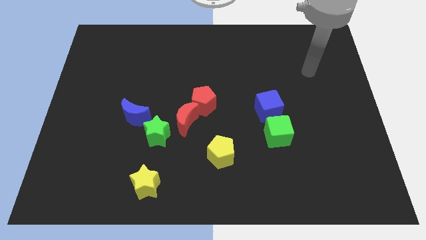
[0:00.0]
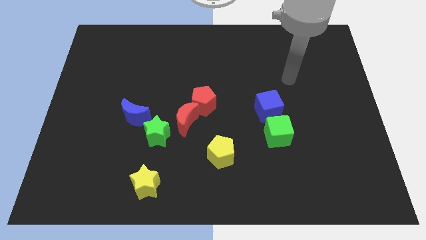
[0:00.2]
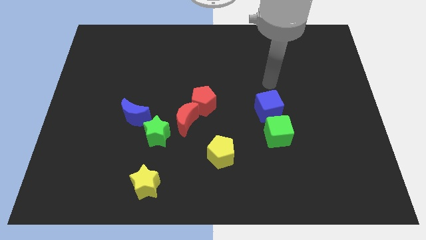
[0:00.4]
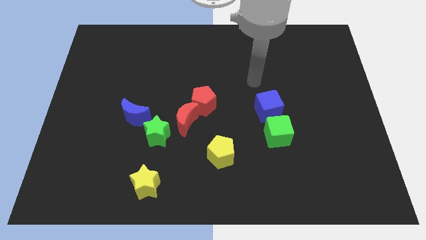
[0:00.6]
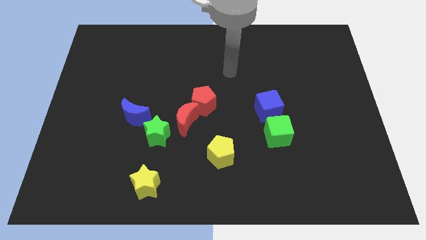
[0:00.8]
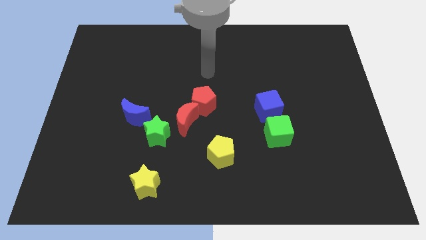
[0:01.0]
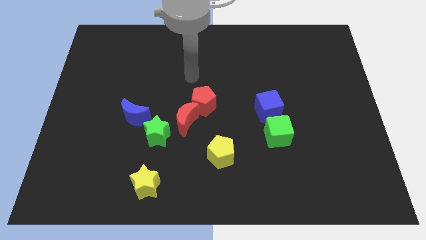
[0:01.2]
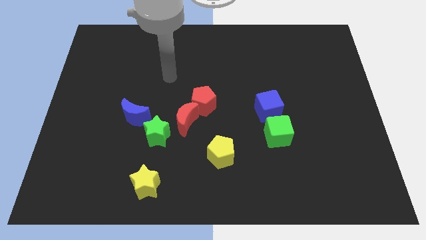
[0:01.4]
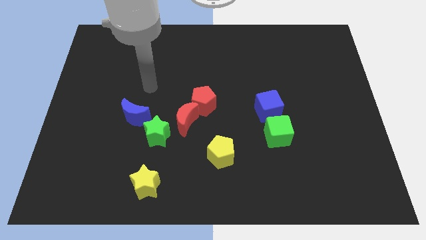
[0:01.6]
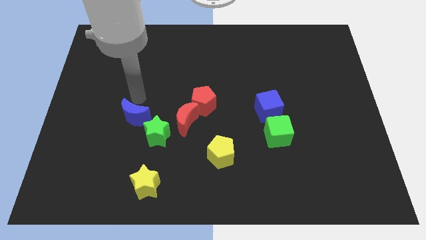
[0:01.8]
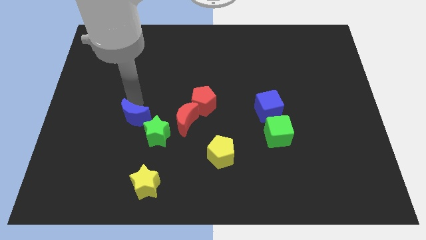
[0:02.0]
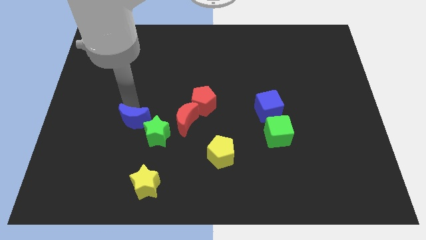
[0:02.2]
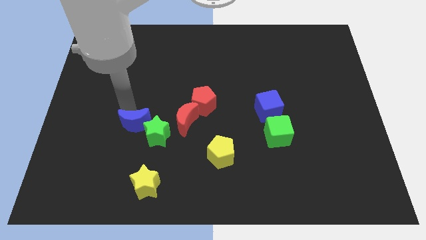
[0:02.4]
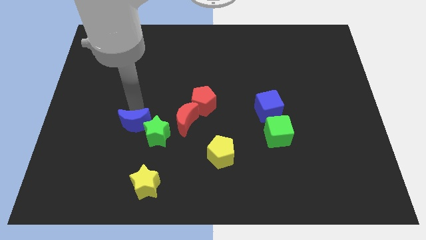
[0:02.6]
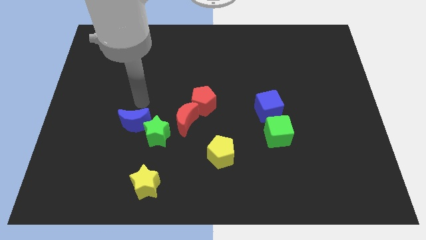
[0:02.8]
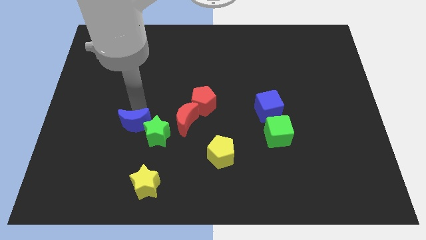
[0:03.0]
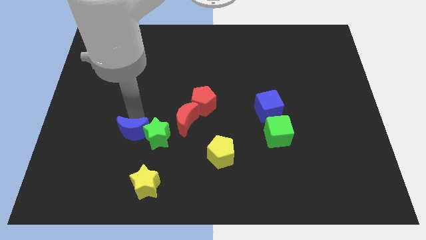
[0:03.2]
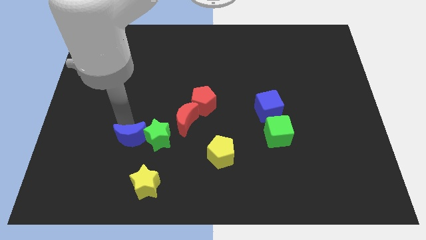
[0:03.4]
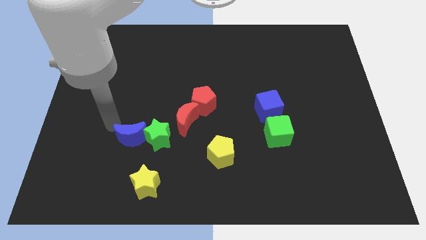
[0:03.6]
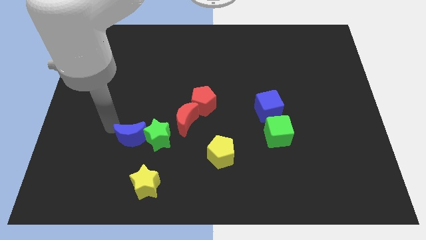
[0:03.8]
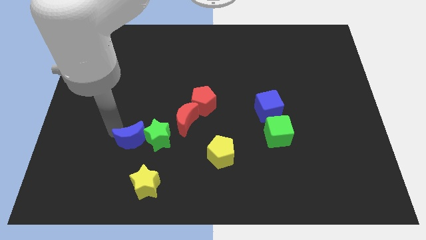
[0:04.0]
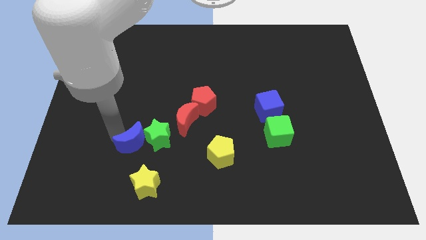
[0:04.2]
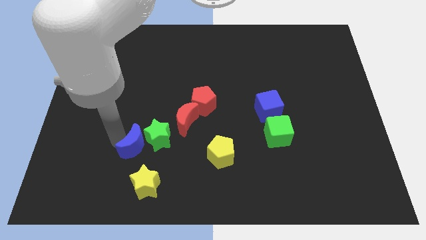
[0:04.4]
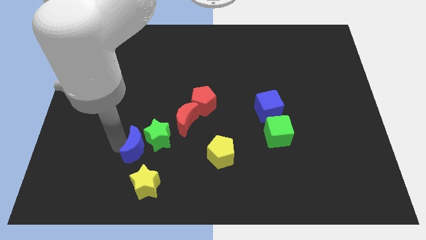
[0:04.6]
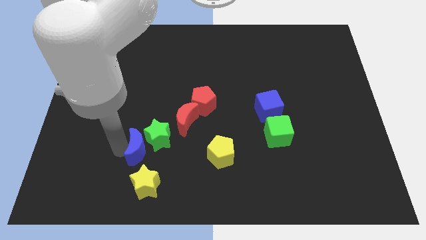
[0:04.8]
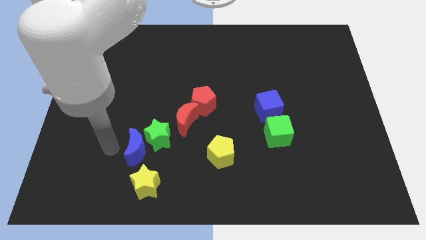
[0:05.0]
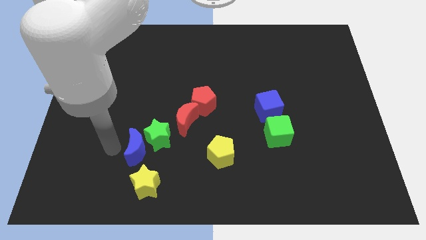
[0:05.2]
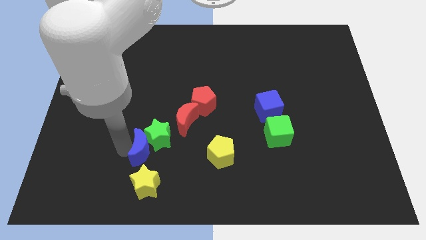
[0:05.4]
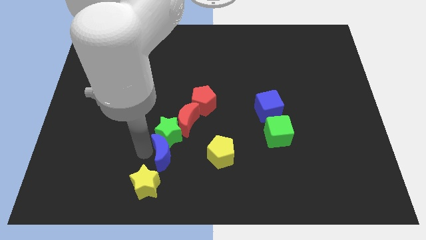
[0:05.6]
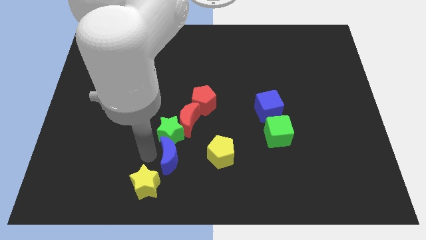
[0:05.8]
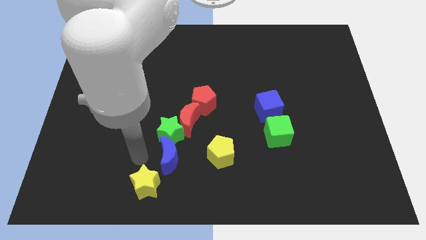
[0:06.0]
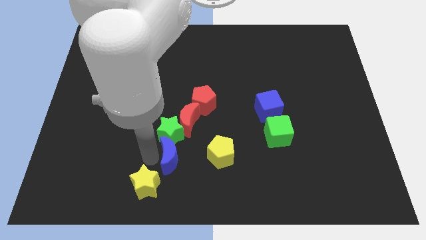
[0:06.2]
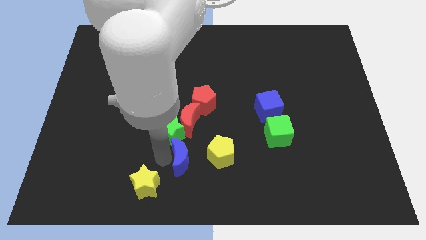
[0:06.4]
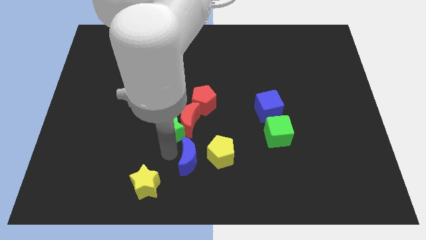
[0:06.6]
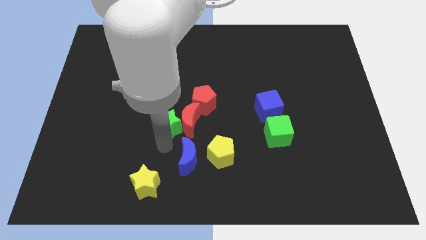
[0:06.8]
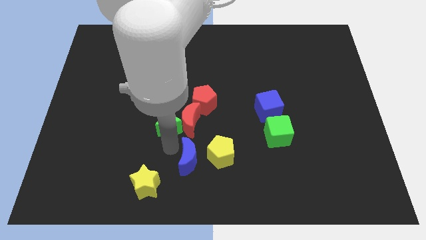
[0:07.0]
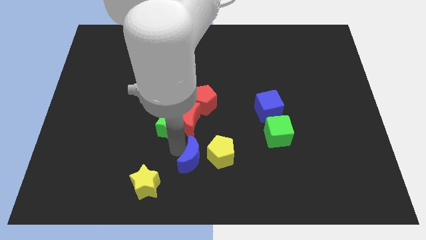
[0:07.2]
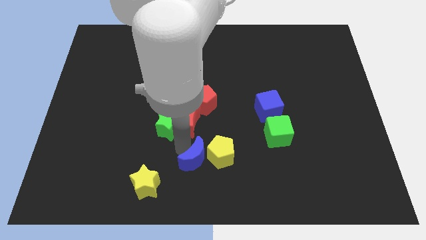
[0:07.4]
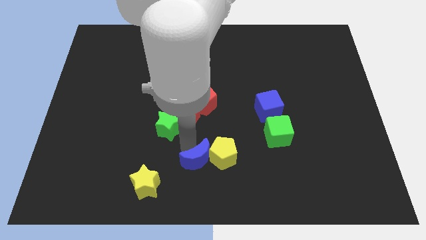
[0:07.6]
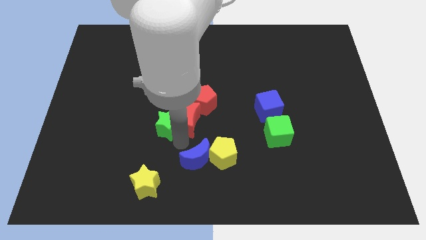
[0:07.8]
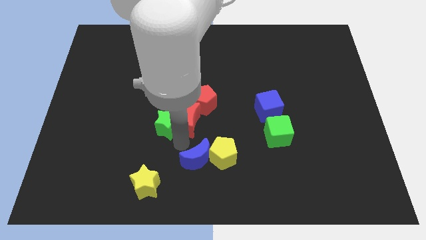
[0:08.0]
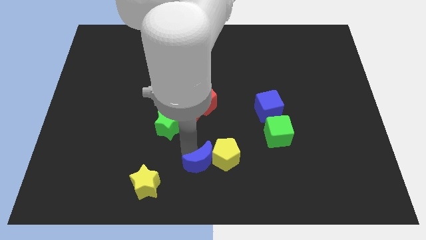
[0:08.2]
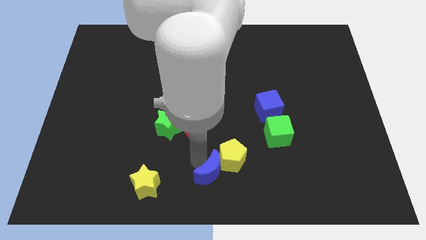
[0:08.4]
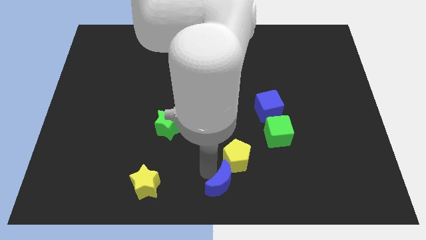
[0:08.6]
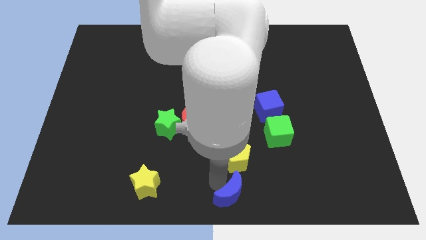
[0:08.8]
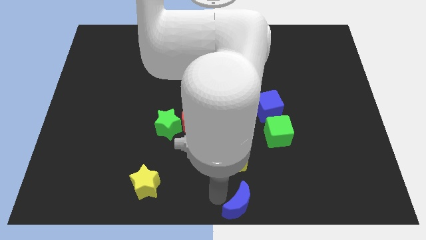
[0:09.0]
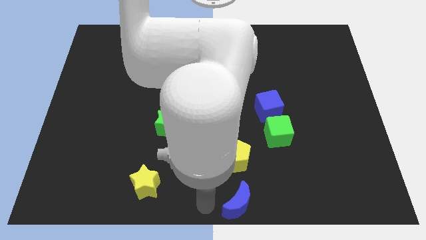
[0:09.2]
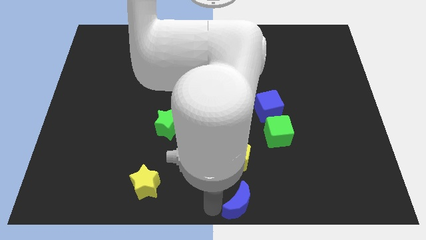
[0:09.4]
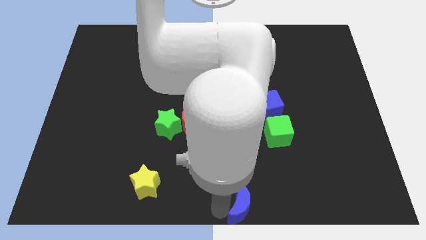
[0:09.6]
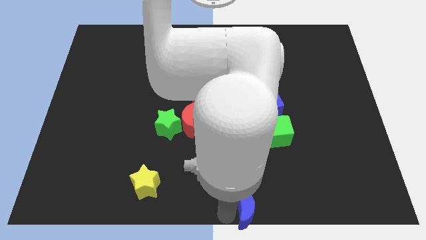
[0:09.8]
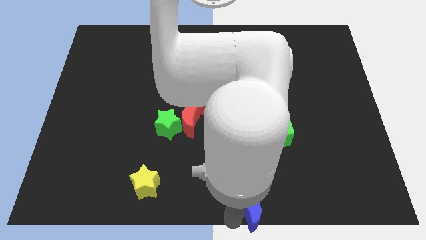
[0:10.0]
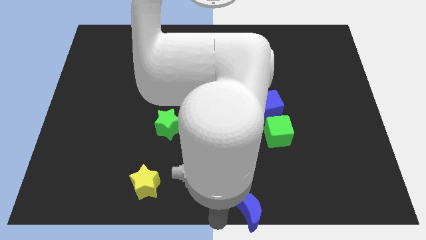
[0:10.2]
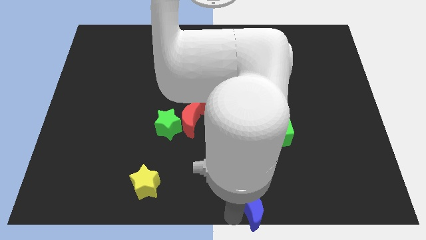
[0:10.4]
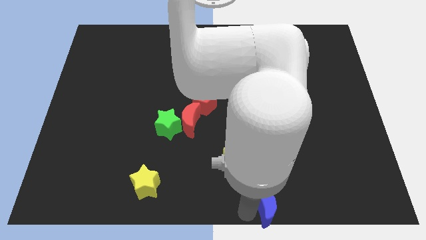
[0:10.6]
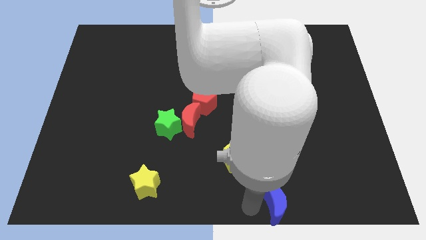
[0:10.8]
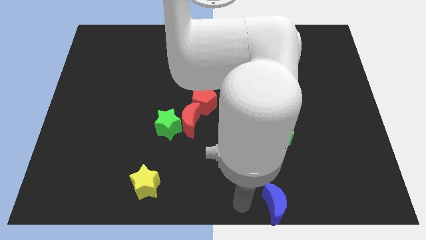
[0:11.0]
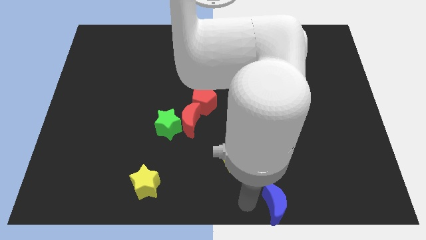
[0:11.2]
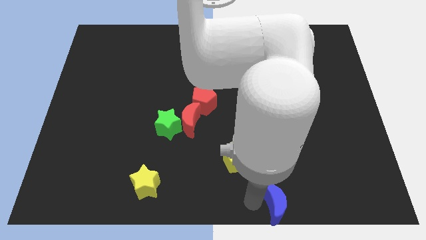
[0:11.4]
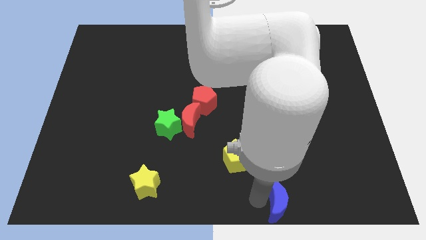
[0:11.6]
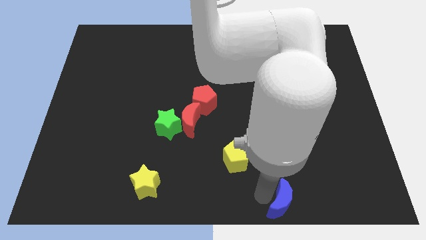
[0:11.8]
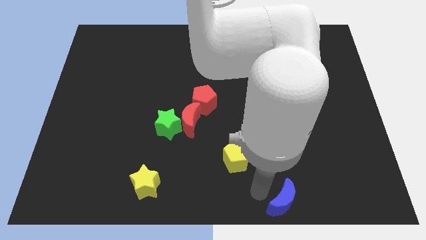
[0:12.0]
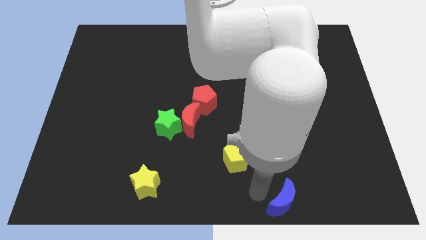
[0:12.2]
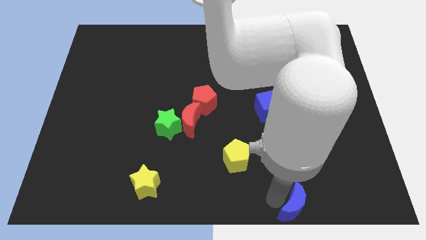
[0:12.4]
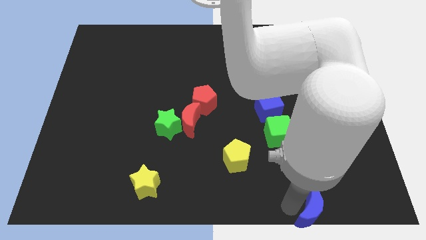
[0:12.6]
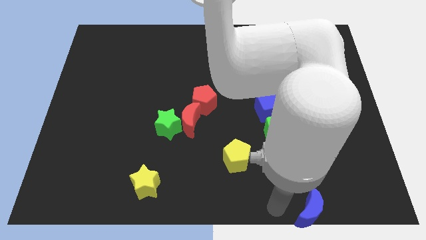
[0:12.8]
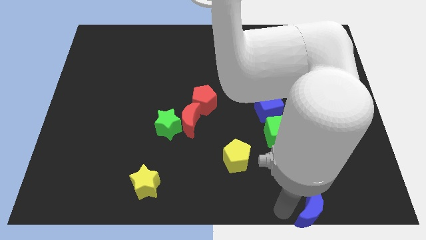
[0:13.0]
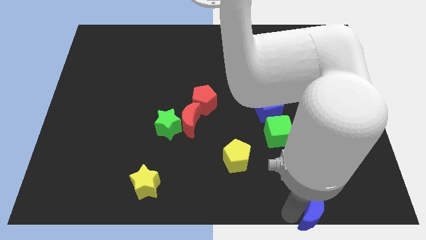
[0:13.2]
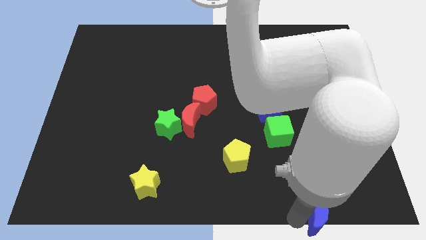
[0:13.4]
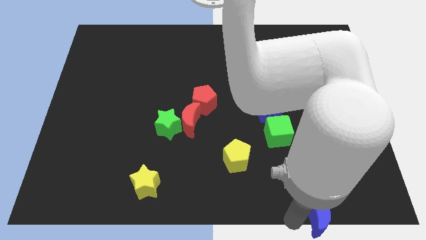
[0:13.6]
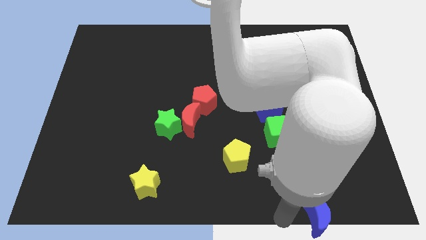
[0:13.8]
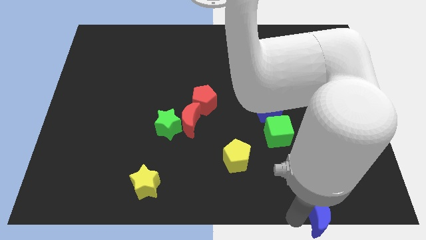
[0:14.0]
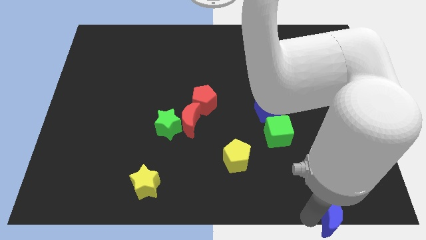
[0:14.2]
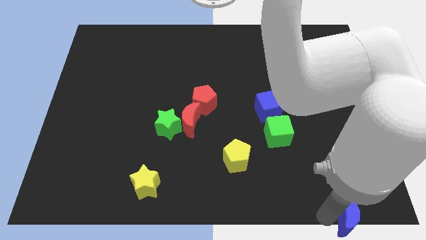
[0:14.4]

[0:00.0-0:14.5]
put the blue moon to the bottom right corner
